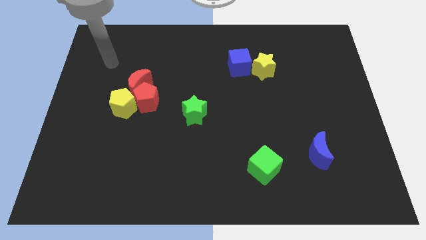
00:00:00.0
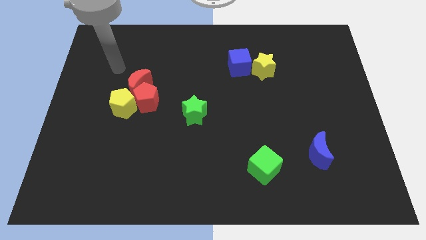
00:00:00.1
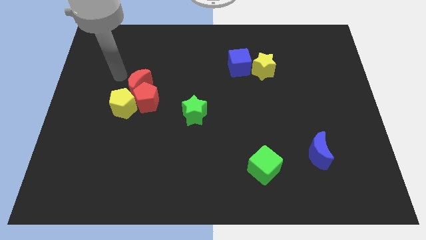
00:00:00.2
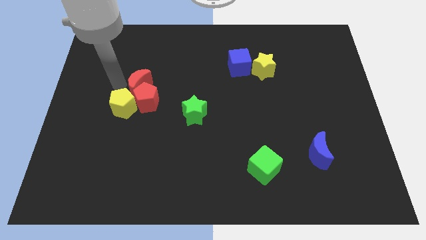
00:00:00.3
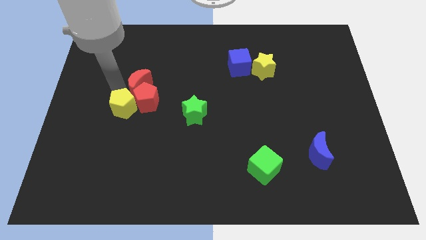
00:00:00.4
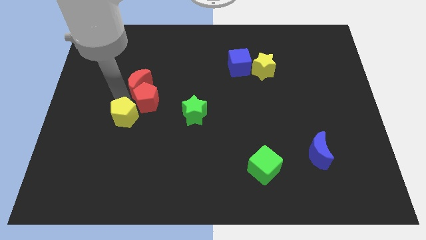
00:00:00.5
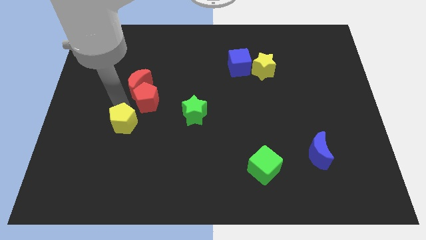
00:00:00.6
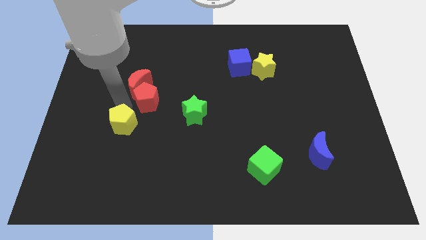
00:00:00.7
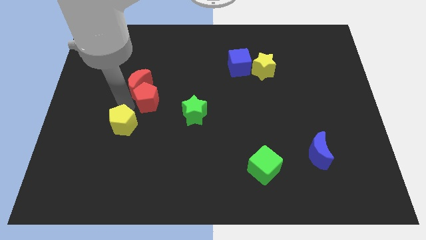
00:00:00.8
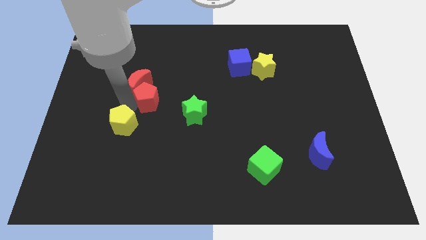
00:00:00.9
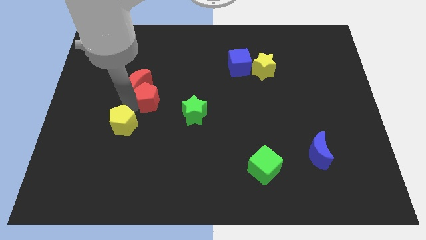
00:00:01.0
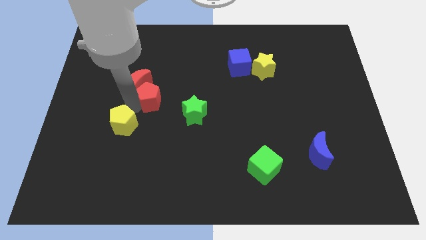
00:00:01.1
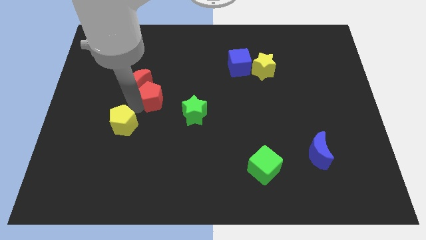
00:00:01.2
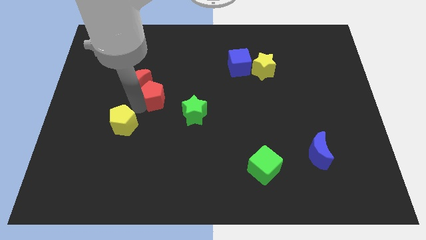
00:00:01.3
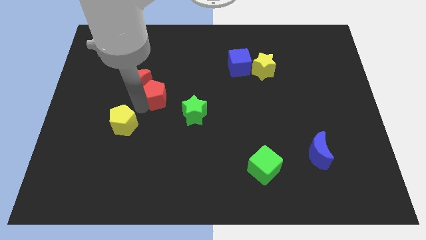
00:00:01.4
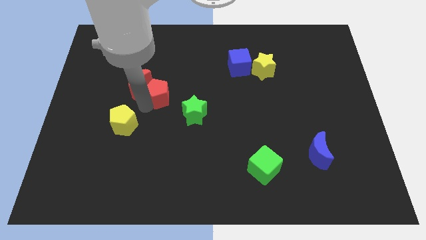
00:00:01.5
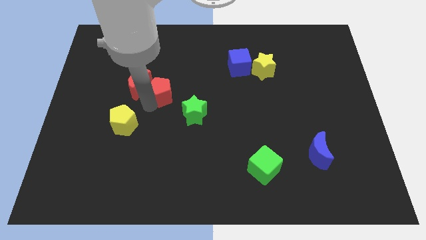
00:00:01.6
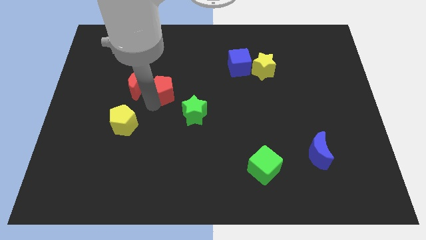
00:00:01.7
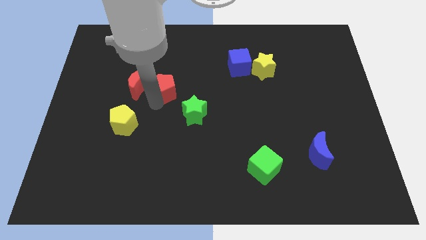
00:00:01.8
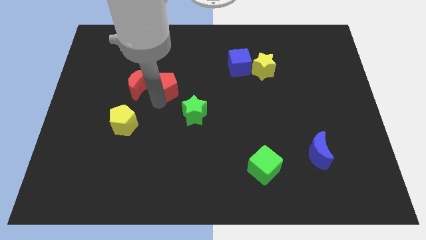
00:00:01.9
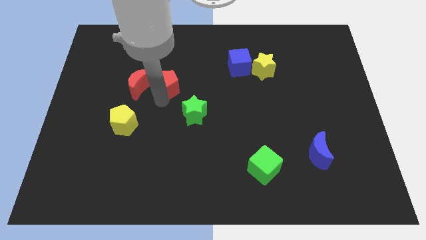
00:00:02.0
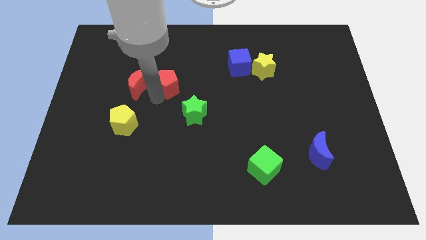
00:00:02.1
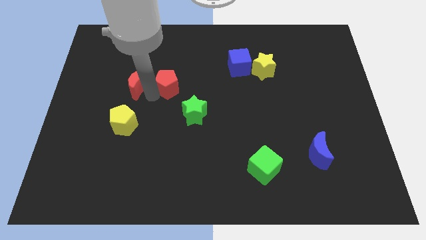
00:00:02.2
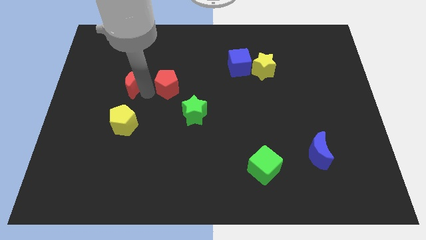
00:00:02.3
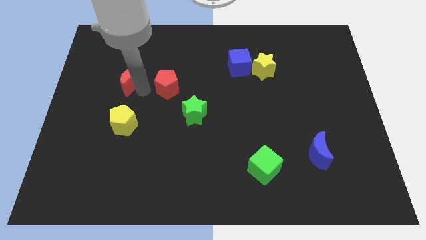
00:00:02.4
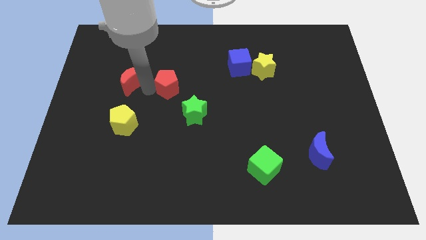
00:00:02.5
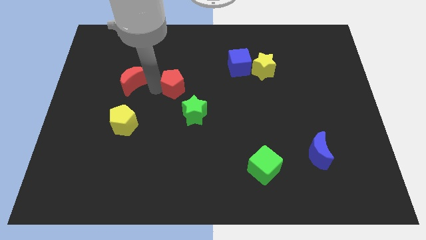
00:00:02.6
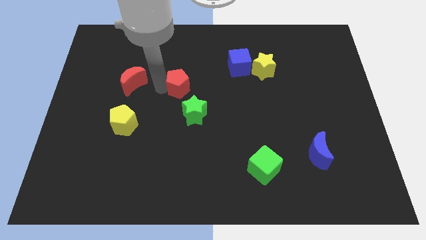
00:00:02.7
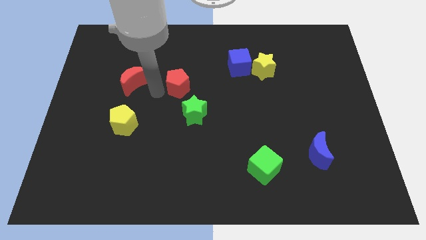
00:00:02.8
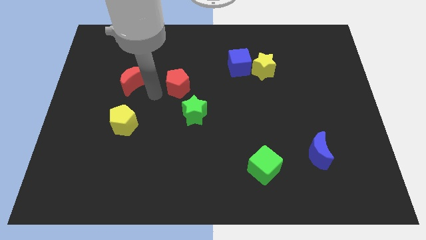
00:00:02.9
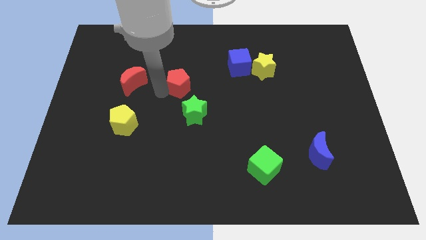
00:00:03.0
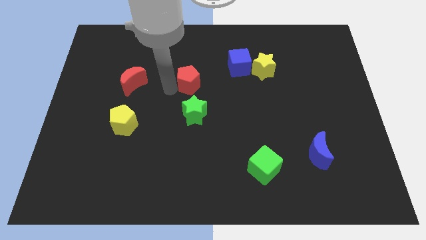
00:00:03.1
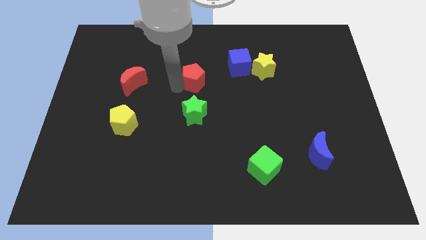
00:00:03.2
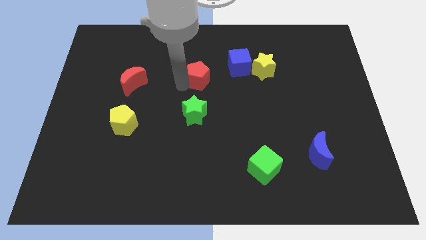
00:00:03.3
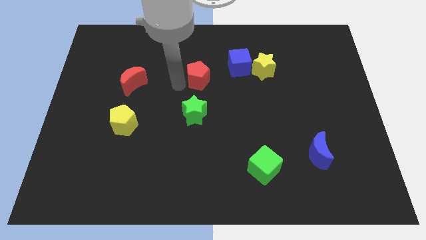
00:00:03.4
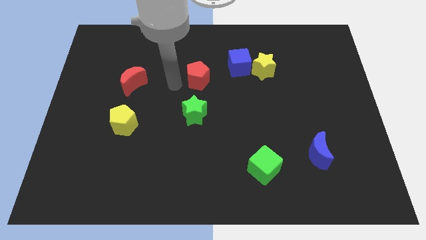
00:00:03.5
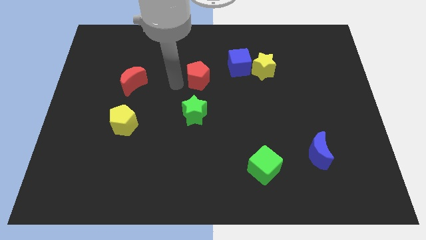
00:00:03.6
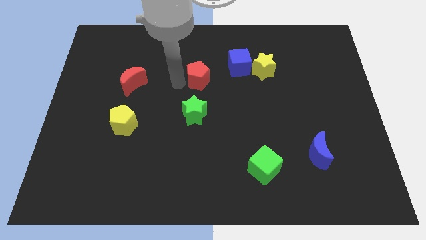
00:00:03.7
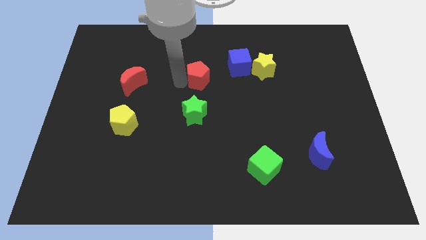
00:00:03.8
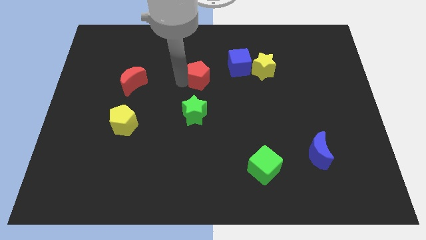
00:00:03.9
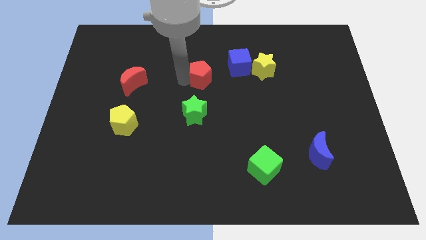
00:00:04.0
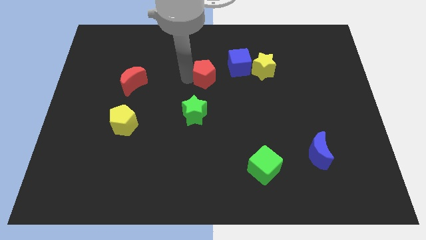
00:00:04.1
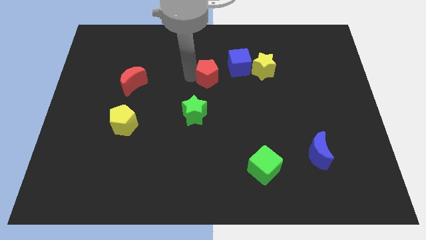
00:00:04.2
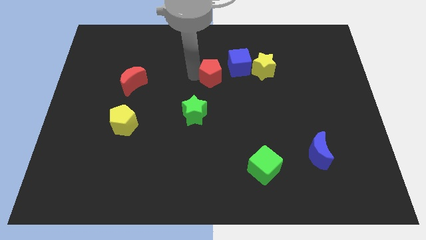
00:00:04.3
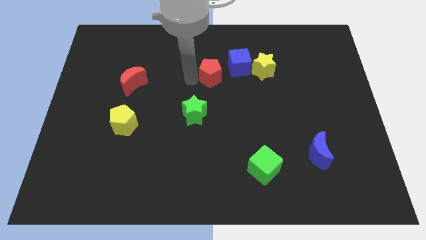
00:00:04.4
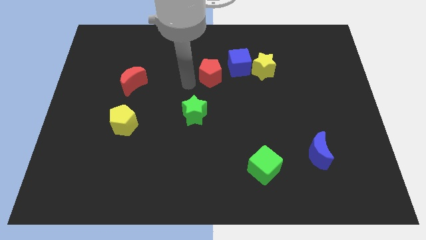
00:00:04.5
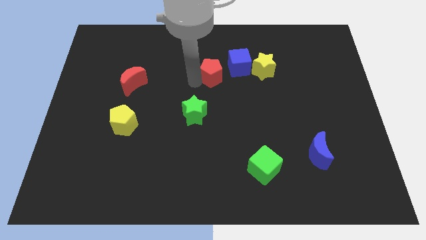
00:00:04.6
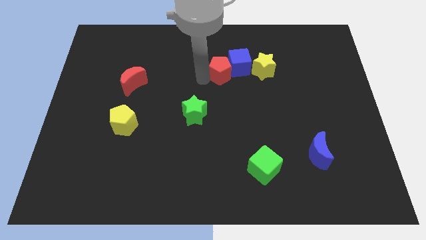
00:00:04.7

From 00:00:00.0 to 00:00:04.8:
slide the red pentagon to the blue cube

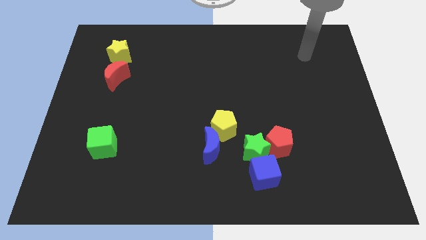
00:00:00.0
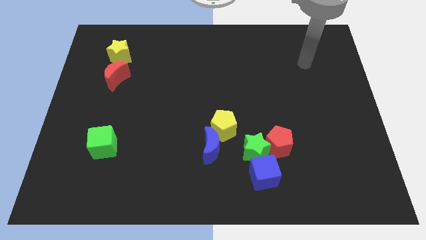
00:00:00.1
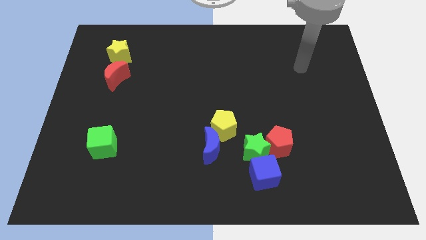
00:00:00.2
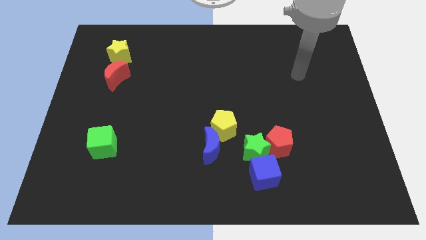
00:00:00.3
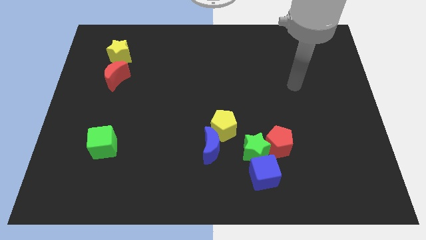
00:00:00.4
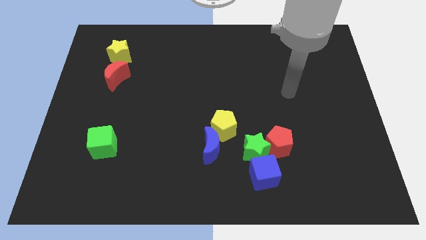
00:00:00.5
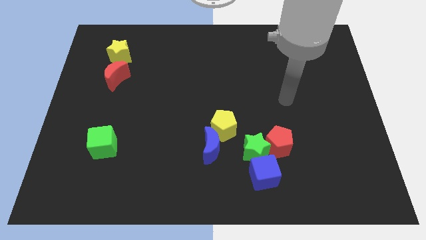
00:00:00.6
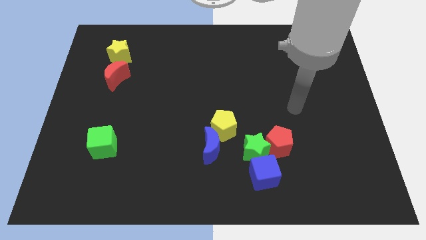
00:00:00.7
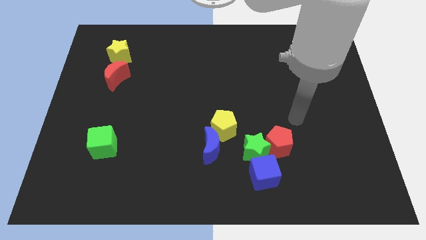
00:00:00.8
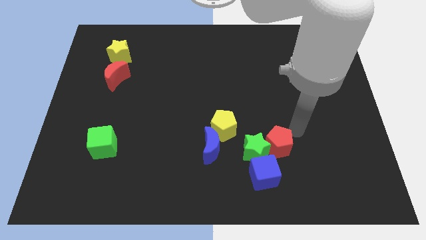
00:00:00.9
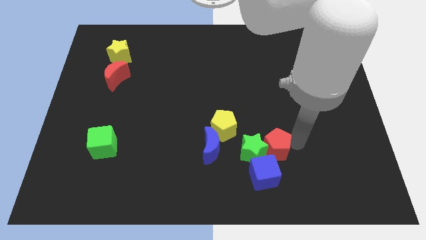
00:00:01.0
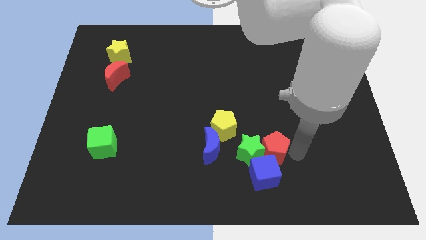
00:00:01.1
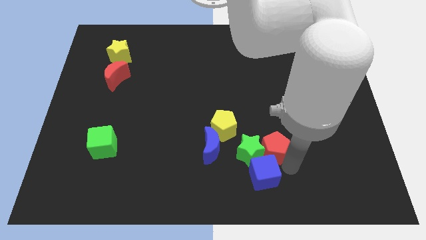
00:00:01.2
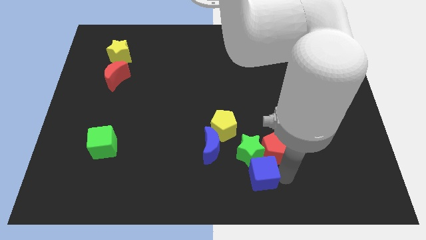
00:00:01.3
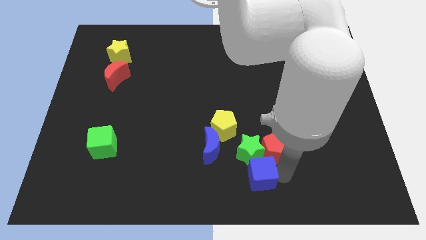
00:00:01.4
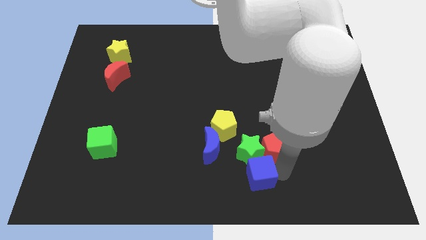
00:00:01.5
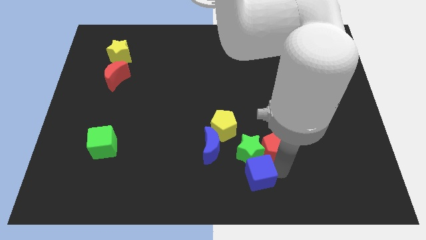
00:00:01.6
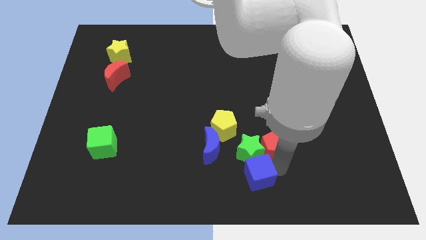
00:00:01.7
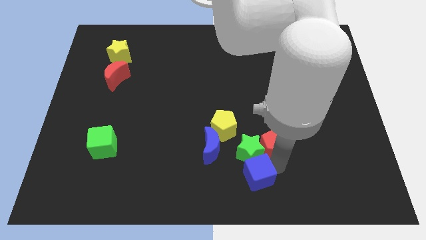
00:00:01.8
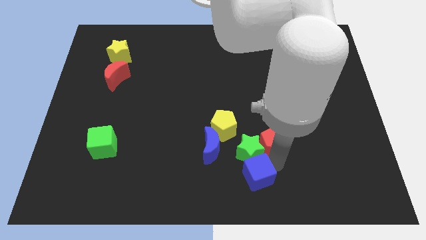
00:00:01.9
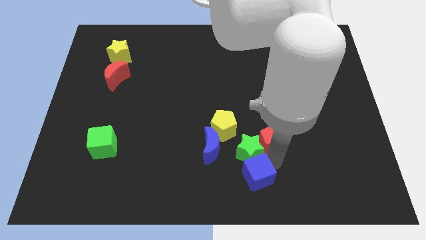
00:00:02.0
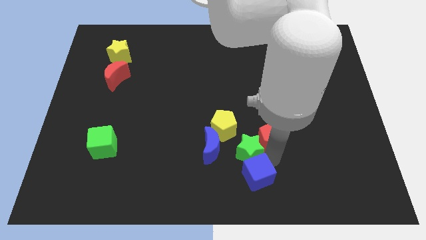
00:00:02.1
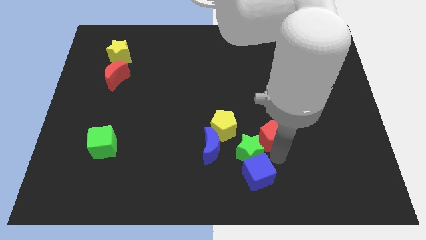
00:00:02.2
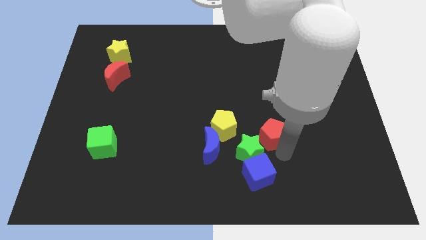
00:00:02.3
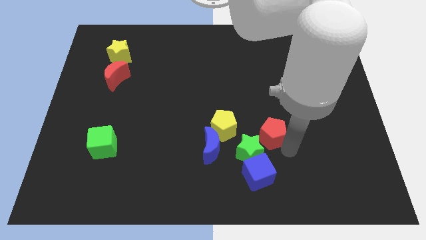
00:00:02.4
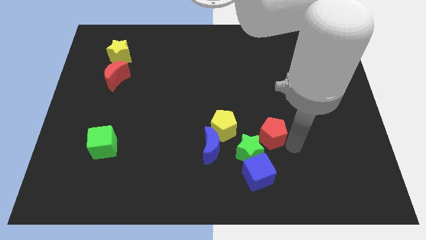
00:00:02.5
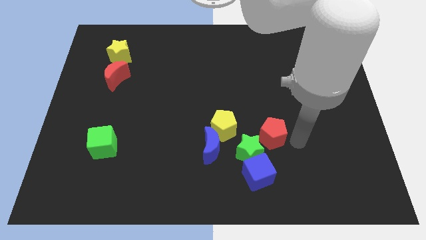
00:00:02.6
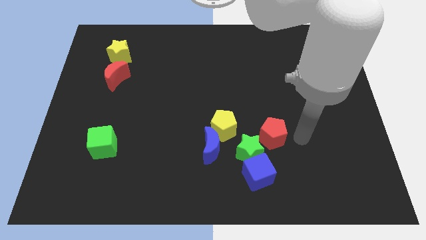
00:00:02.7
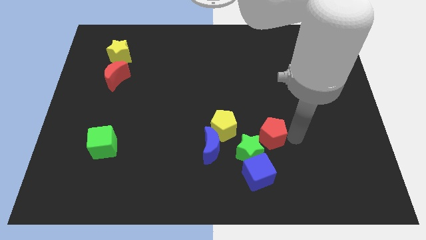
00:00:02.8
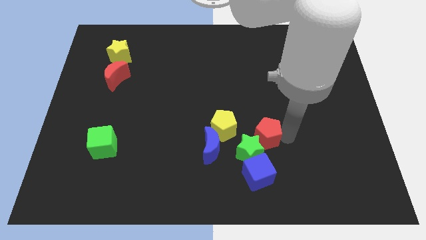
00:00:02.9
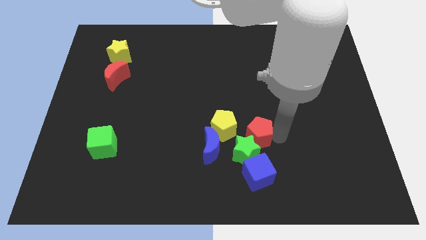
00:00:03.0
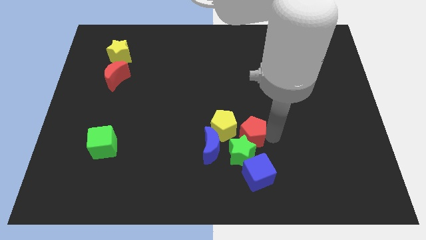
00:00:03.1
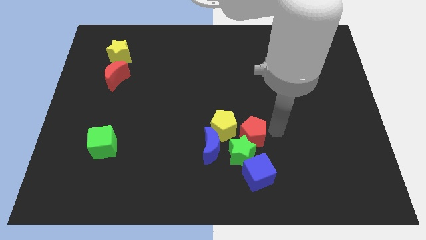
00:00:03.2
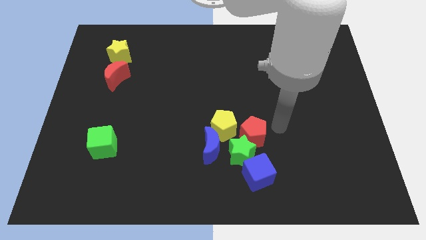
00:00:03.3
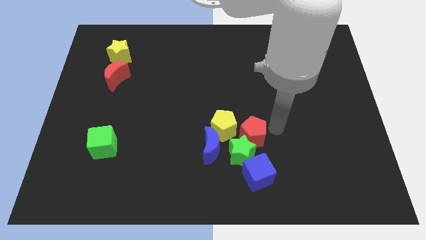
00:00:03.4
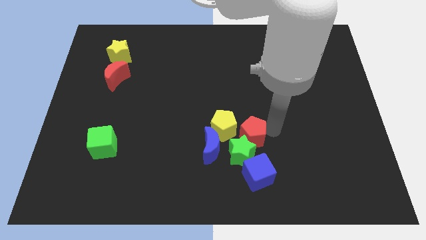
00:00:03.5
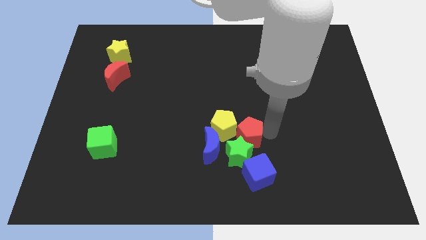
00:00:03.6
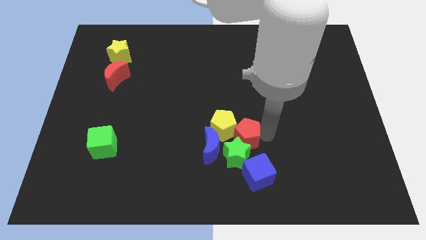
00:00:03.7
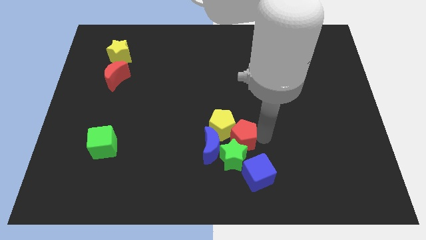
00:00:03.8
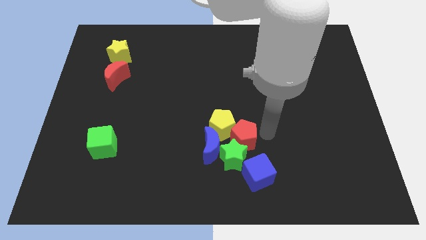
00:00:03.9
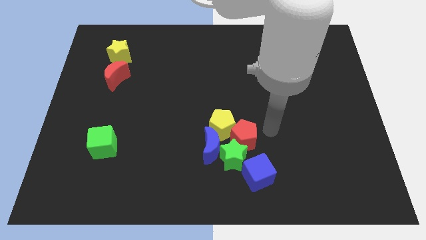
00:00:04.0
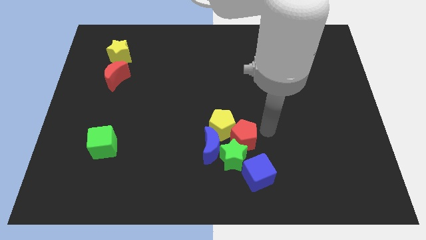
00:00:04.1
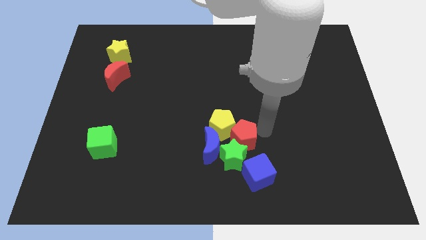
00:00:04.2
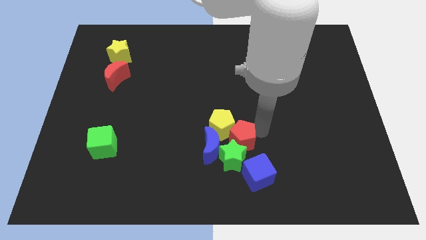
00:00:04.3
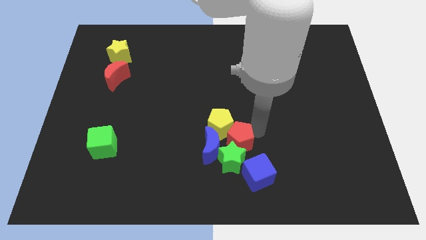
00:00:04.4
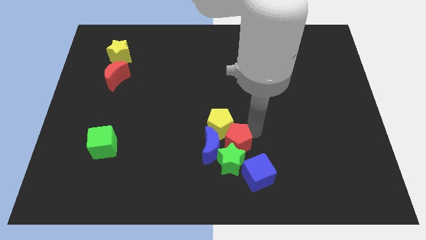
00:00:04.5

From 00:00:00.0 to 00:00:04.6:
move the red pentagon next to the blue moon
